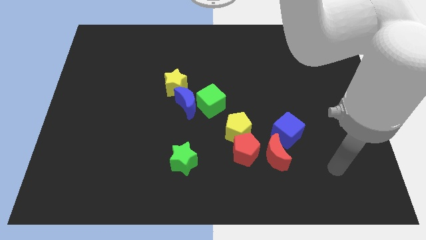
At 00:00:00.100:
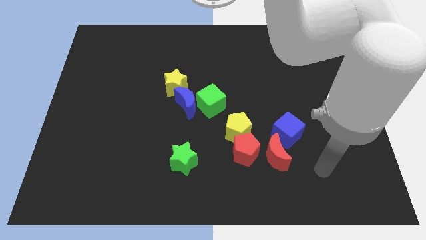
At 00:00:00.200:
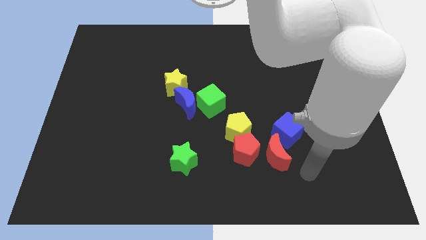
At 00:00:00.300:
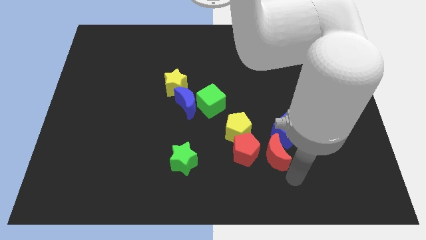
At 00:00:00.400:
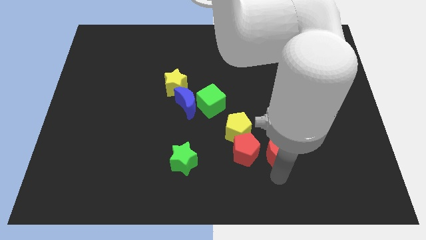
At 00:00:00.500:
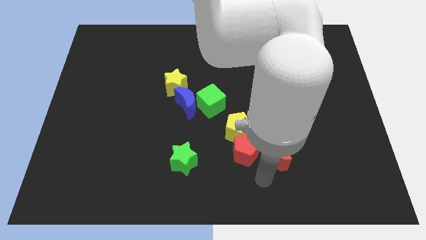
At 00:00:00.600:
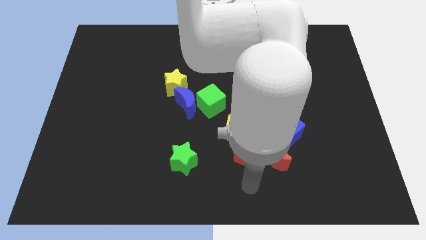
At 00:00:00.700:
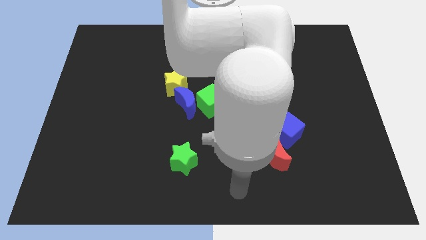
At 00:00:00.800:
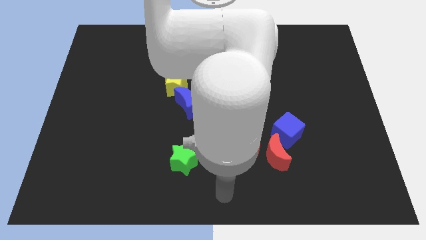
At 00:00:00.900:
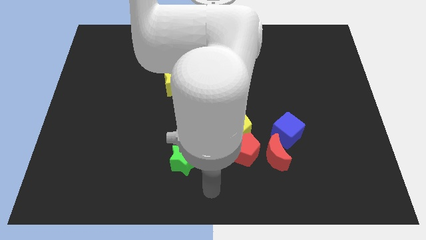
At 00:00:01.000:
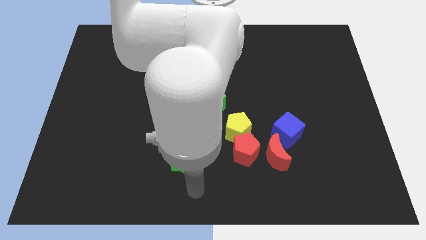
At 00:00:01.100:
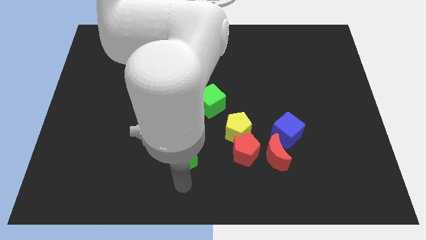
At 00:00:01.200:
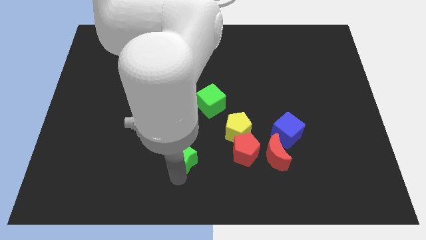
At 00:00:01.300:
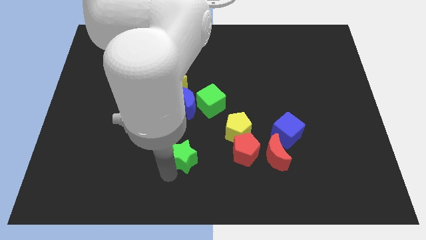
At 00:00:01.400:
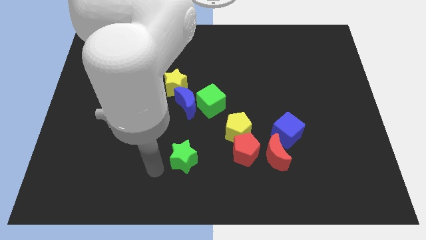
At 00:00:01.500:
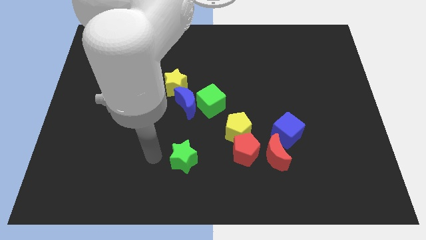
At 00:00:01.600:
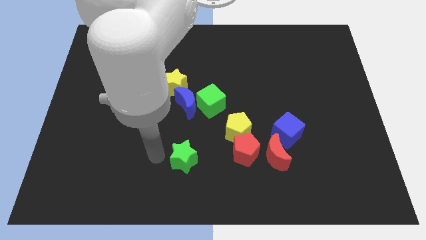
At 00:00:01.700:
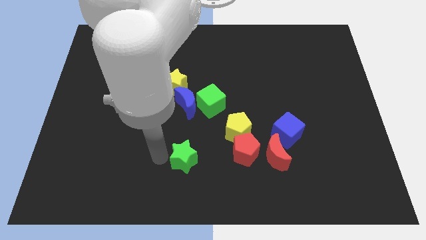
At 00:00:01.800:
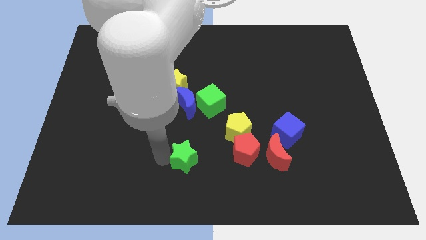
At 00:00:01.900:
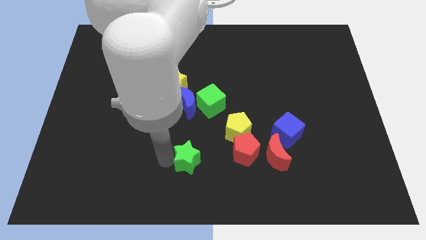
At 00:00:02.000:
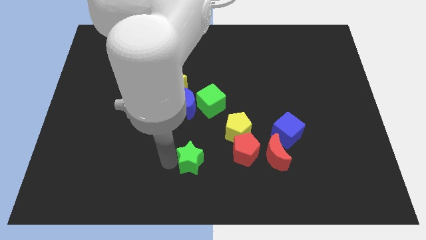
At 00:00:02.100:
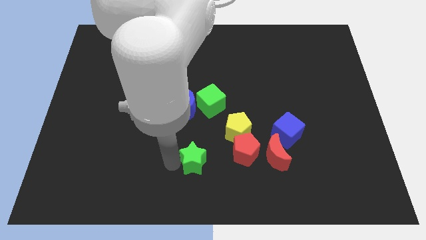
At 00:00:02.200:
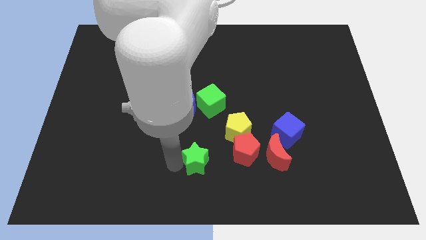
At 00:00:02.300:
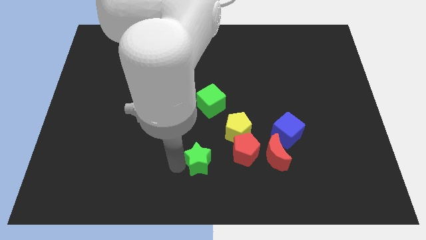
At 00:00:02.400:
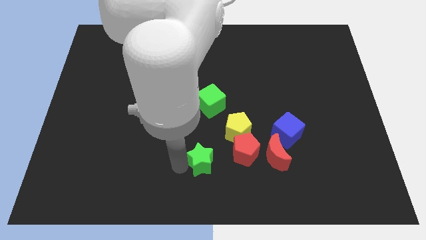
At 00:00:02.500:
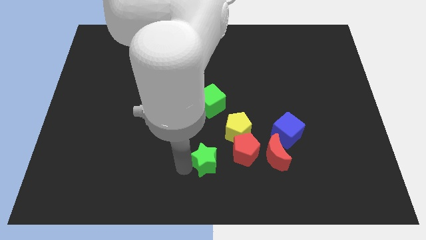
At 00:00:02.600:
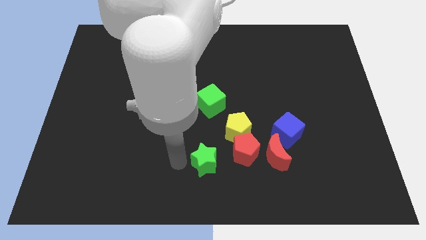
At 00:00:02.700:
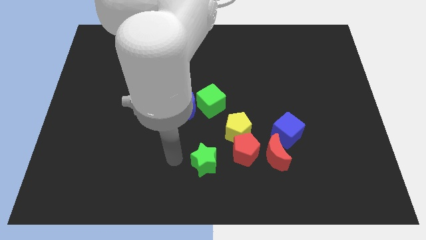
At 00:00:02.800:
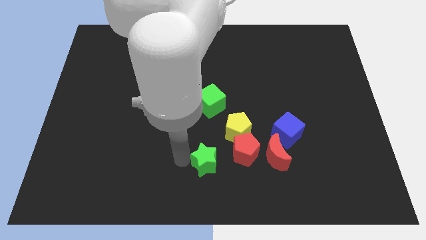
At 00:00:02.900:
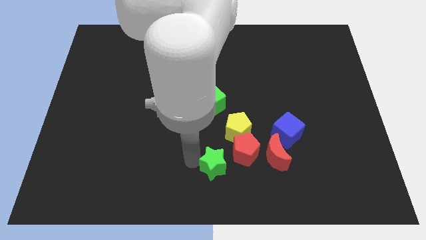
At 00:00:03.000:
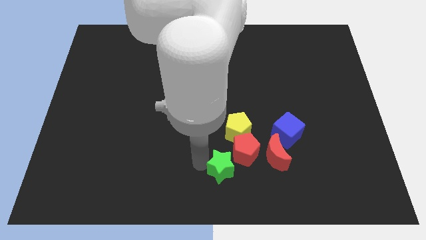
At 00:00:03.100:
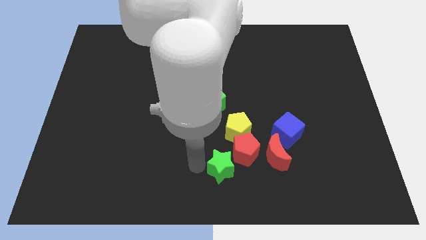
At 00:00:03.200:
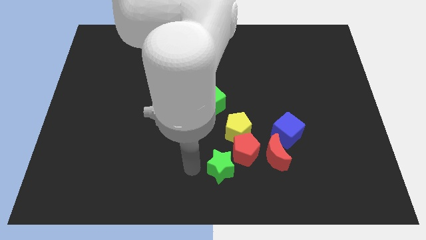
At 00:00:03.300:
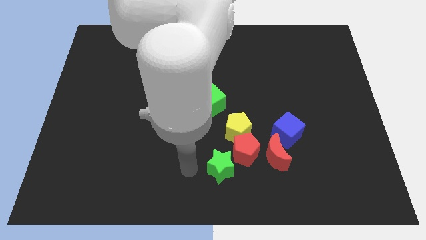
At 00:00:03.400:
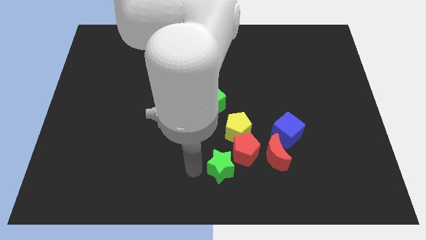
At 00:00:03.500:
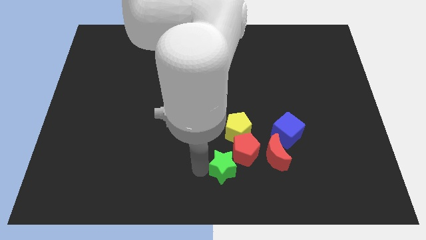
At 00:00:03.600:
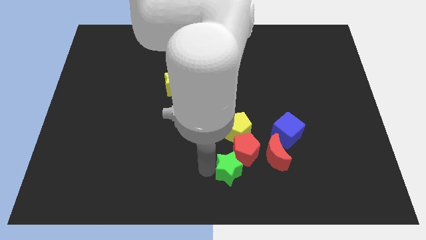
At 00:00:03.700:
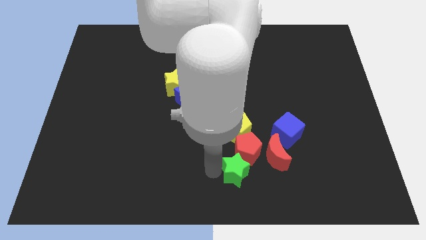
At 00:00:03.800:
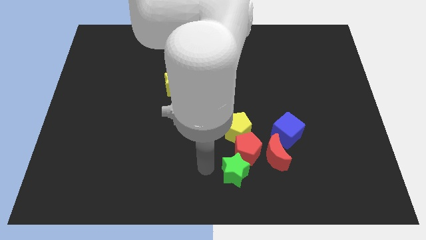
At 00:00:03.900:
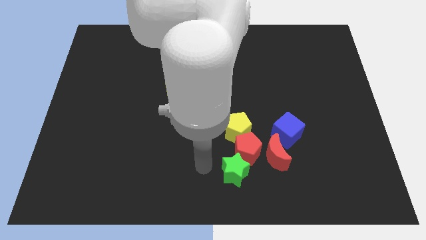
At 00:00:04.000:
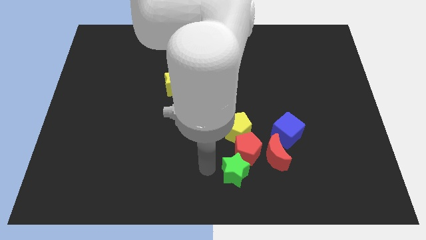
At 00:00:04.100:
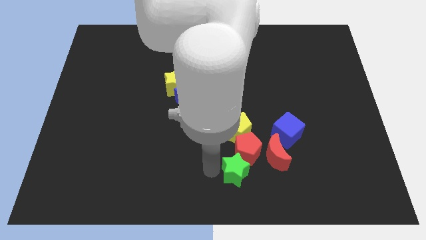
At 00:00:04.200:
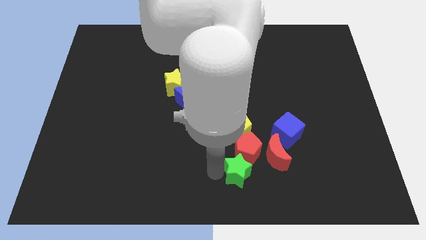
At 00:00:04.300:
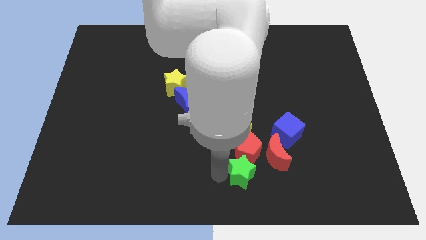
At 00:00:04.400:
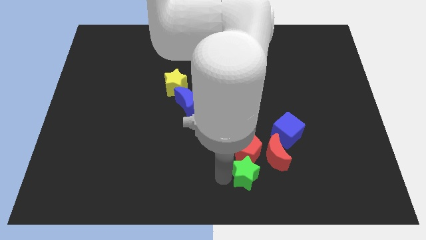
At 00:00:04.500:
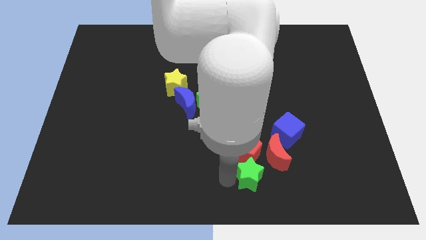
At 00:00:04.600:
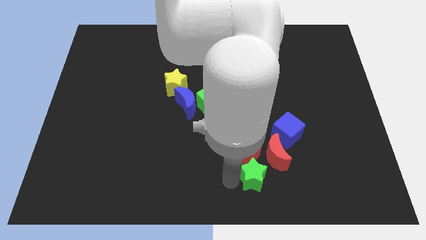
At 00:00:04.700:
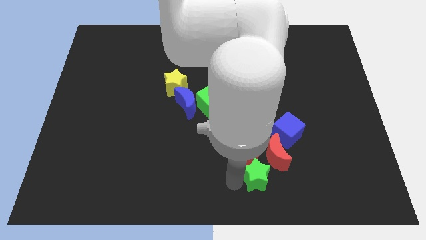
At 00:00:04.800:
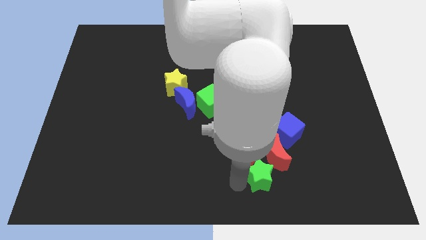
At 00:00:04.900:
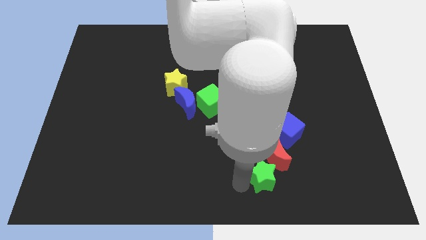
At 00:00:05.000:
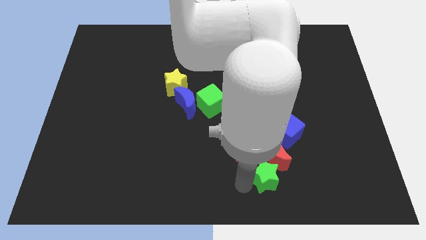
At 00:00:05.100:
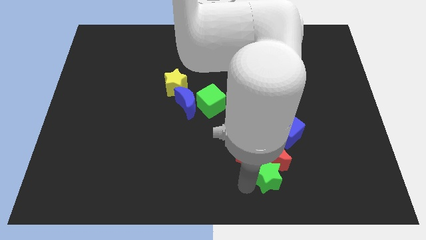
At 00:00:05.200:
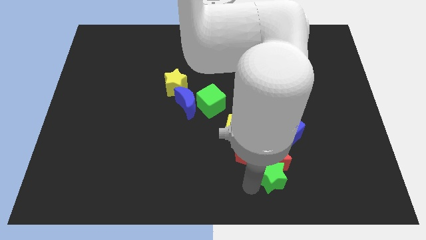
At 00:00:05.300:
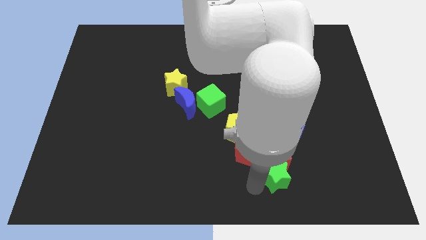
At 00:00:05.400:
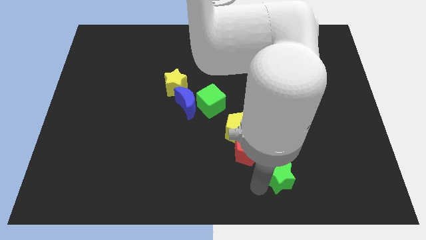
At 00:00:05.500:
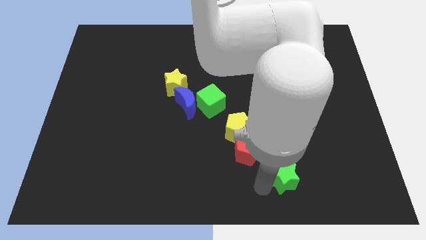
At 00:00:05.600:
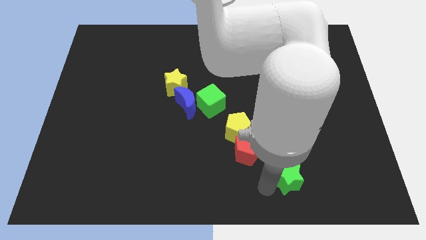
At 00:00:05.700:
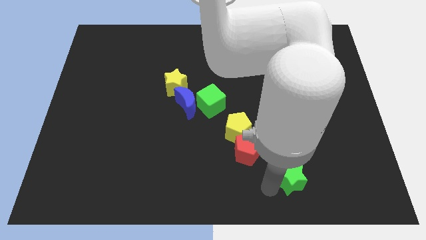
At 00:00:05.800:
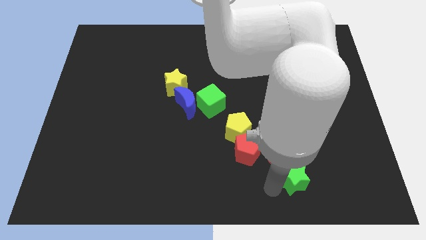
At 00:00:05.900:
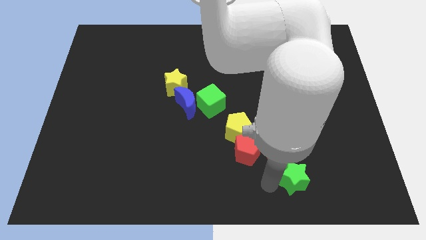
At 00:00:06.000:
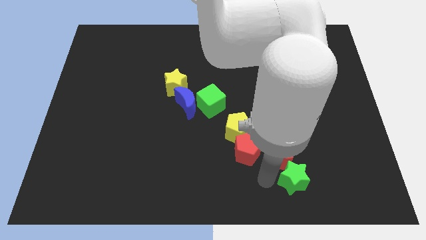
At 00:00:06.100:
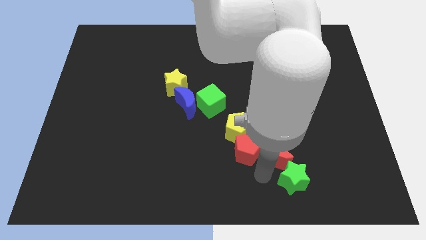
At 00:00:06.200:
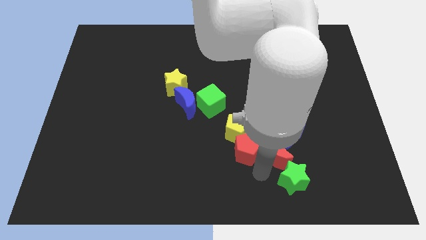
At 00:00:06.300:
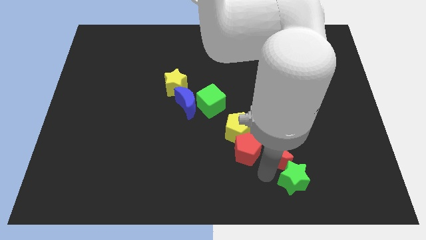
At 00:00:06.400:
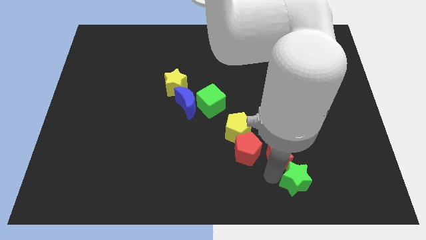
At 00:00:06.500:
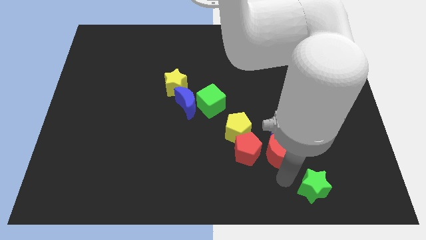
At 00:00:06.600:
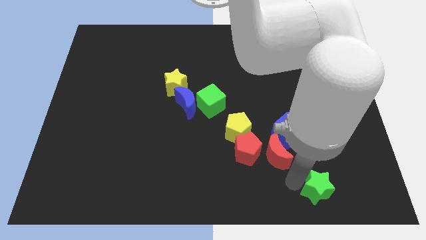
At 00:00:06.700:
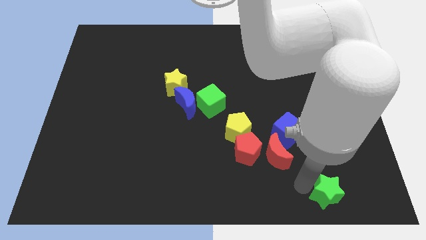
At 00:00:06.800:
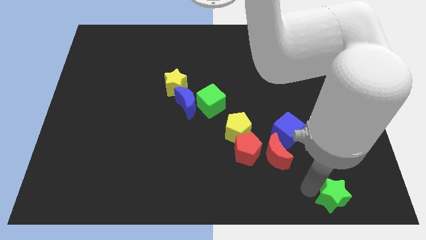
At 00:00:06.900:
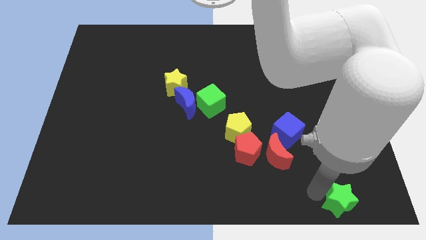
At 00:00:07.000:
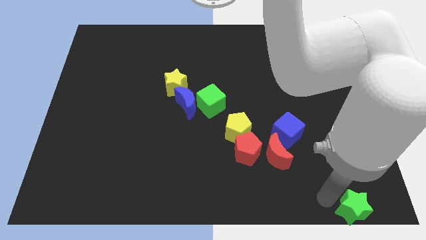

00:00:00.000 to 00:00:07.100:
put the green star to the bottom right corner
